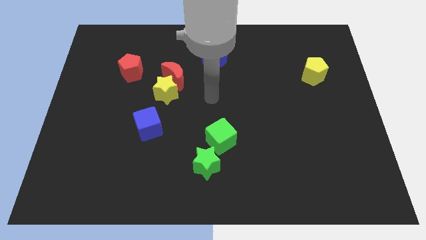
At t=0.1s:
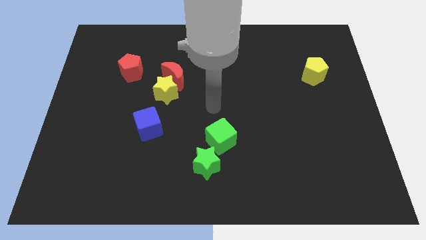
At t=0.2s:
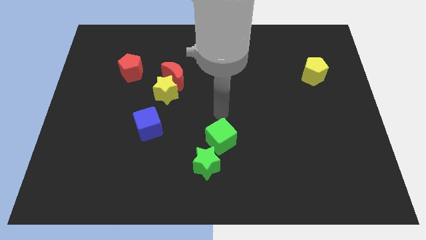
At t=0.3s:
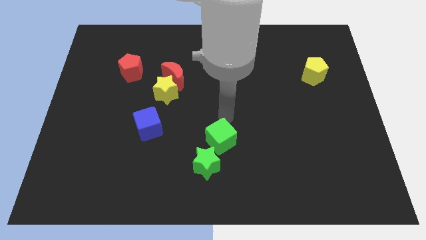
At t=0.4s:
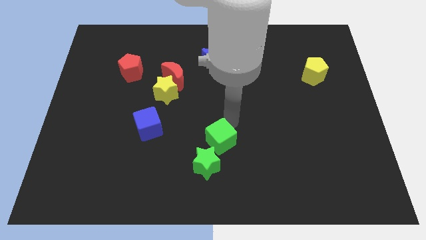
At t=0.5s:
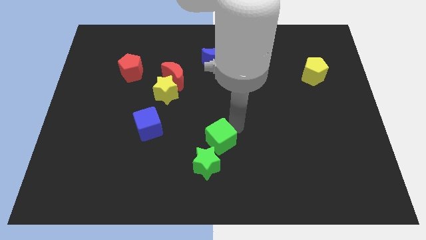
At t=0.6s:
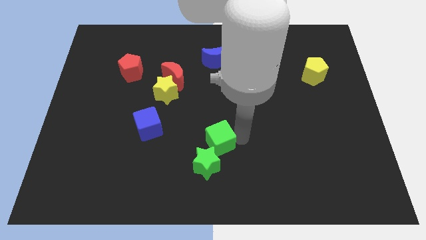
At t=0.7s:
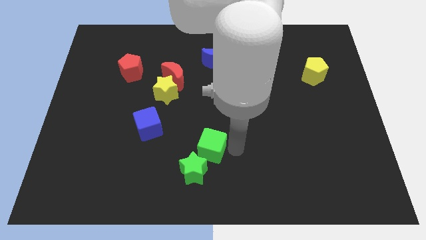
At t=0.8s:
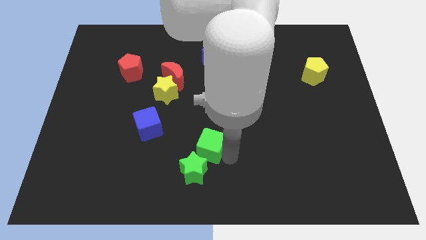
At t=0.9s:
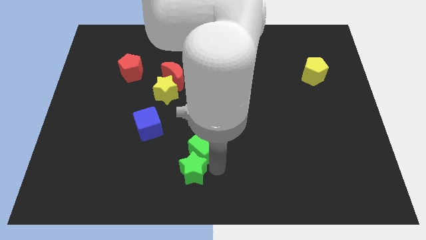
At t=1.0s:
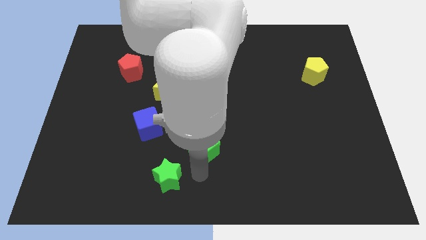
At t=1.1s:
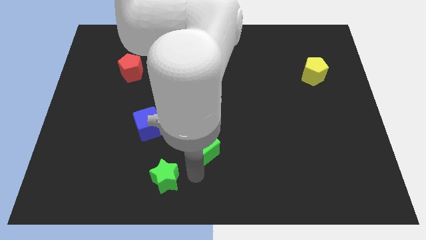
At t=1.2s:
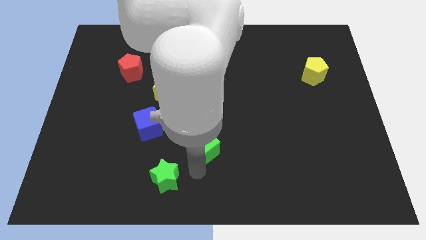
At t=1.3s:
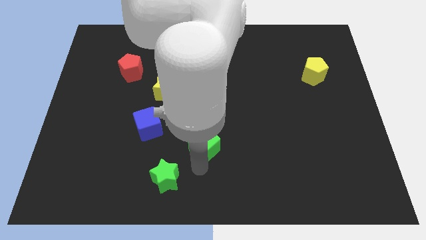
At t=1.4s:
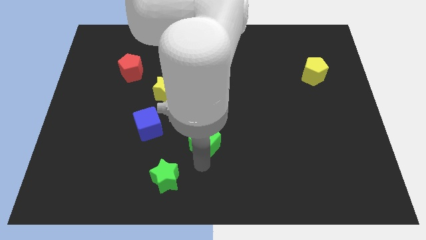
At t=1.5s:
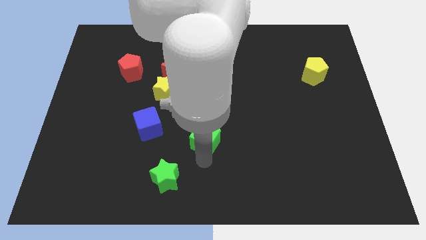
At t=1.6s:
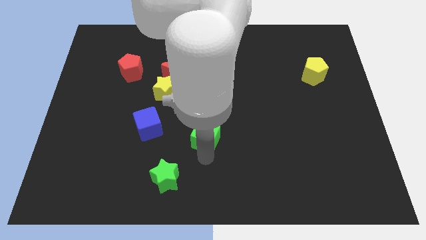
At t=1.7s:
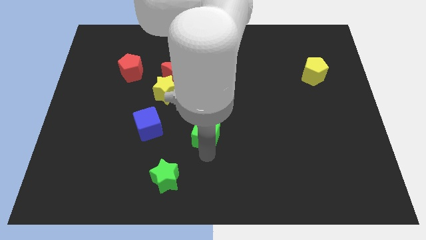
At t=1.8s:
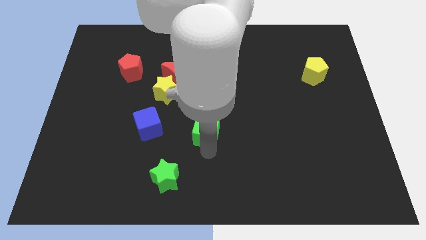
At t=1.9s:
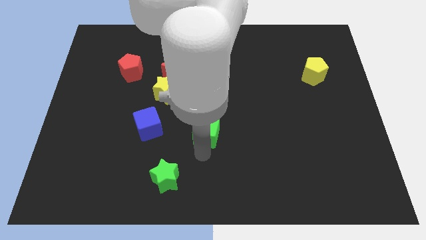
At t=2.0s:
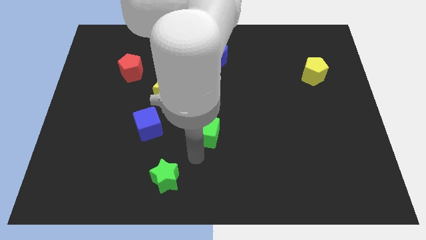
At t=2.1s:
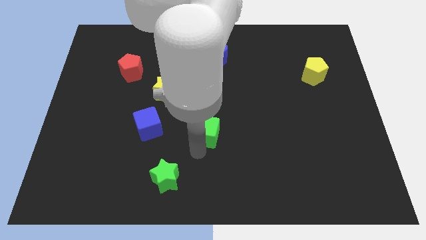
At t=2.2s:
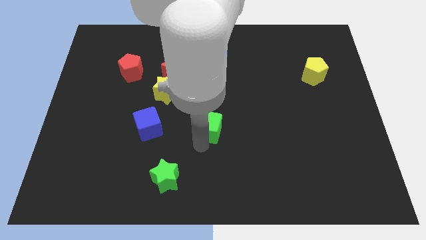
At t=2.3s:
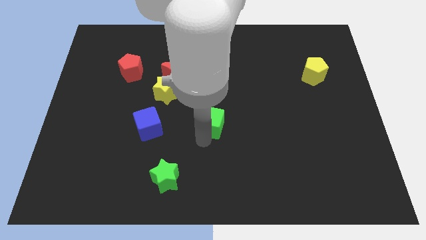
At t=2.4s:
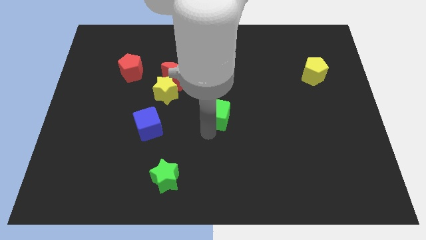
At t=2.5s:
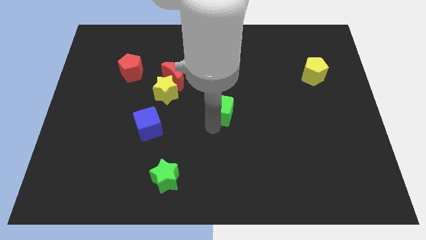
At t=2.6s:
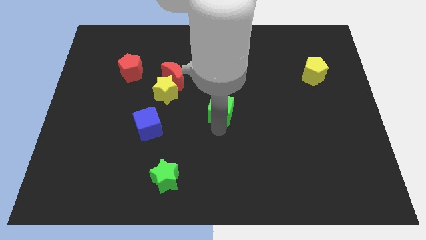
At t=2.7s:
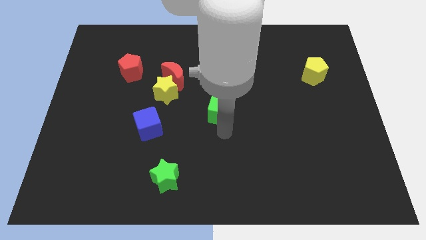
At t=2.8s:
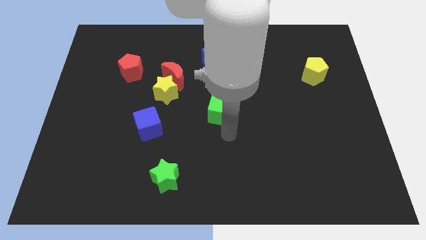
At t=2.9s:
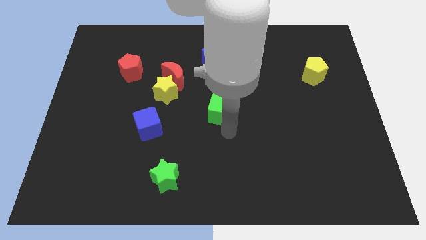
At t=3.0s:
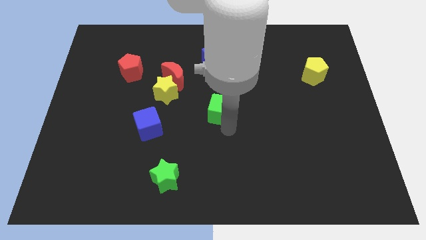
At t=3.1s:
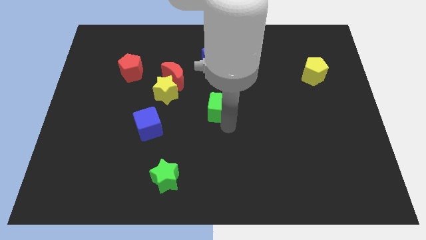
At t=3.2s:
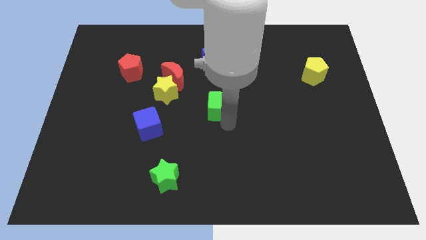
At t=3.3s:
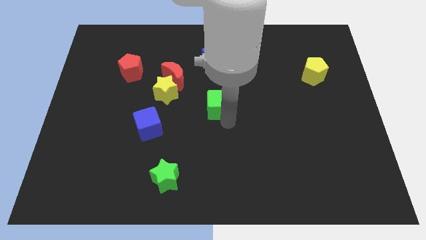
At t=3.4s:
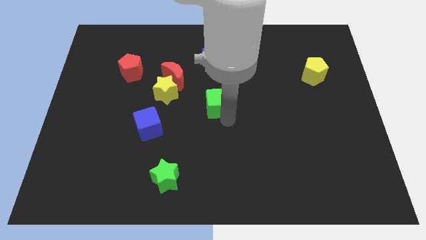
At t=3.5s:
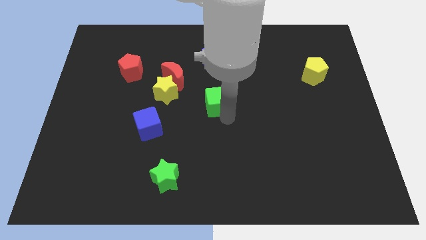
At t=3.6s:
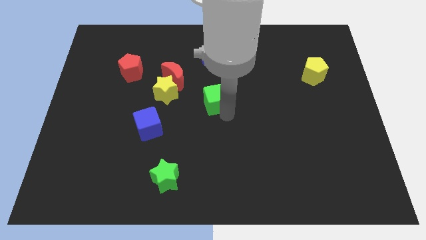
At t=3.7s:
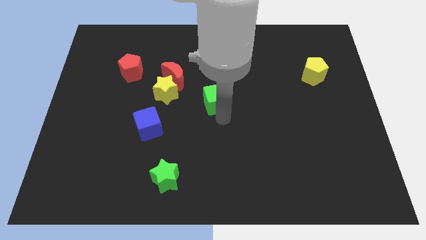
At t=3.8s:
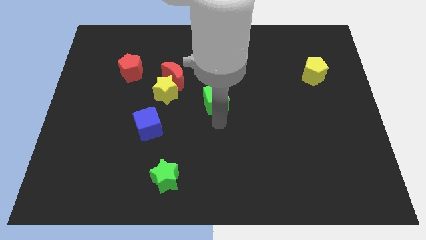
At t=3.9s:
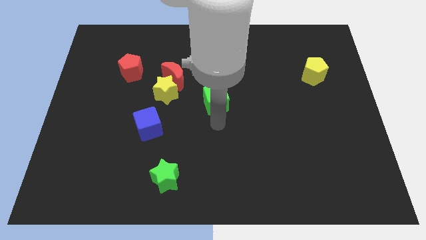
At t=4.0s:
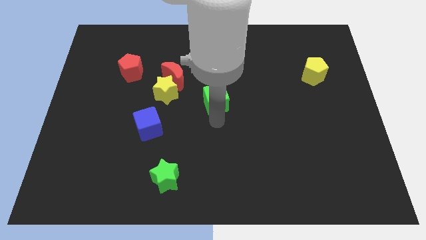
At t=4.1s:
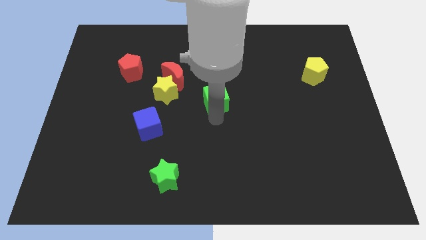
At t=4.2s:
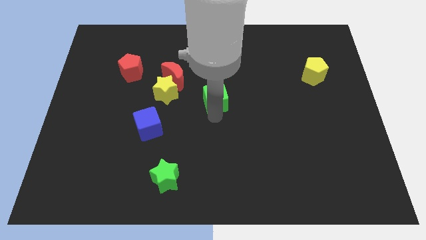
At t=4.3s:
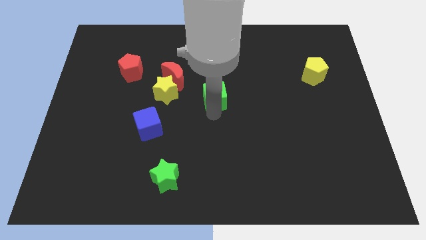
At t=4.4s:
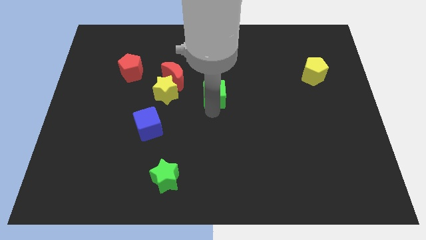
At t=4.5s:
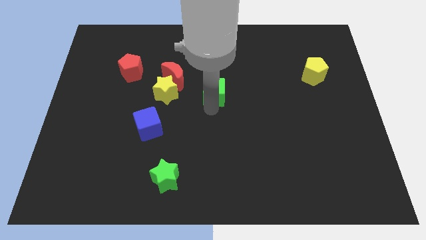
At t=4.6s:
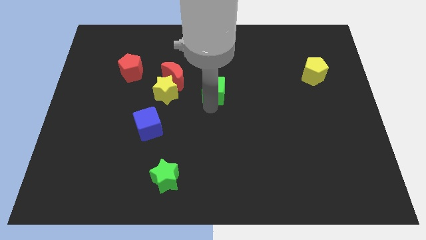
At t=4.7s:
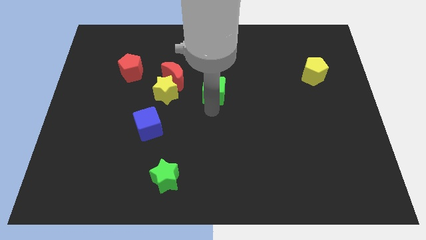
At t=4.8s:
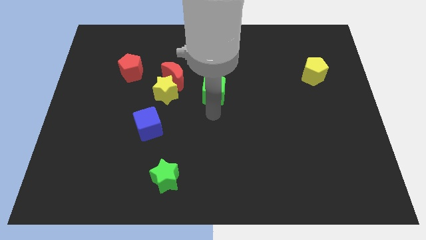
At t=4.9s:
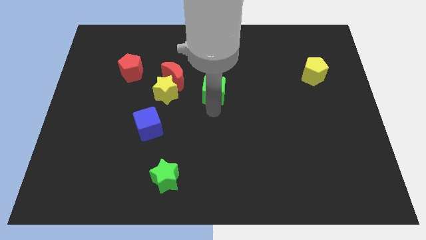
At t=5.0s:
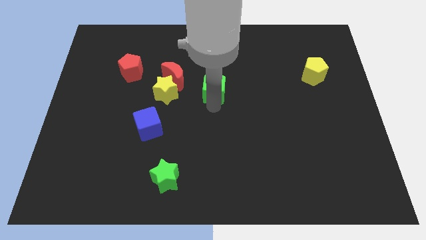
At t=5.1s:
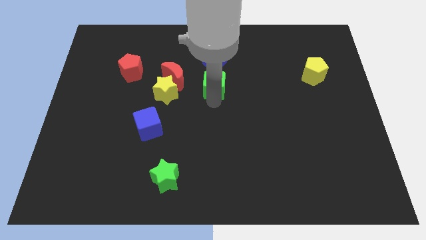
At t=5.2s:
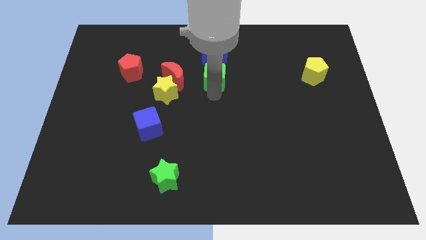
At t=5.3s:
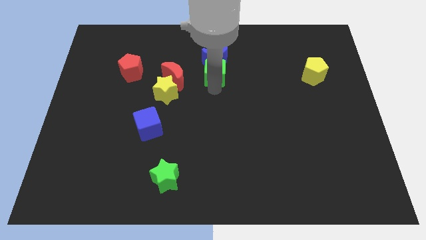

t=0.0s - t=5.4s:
slide the green cube close to the blue moon

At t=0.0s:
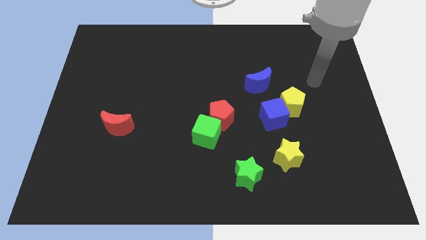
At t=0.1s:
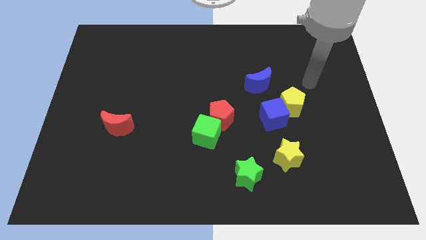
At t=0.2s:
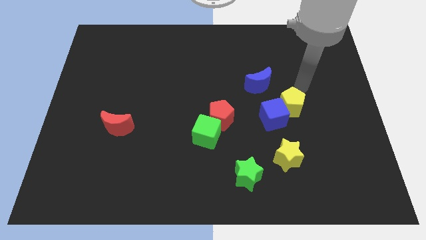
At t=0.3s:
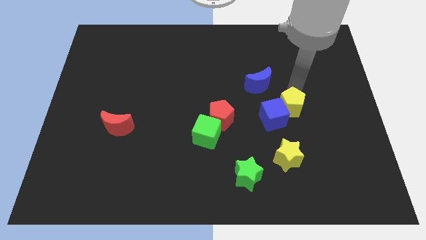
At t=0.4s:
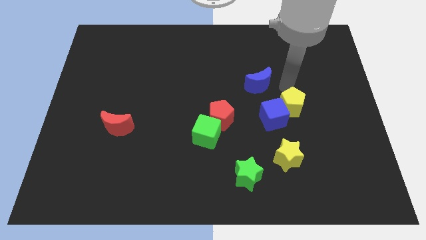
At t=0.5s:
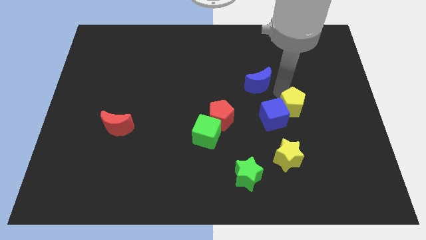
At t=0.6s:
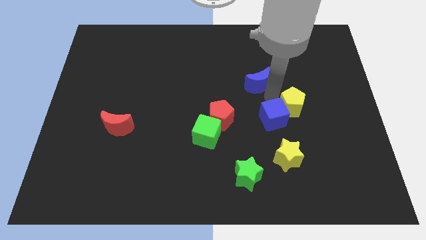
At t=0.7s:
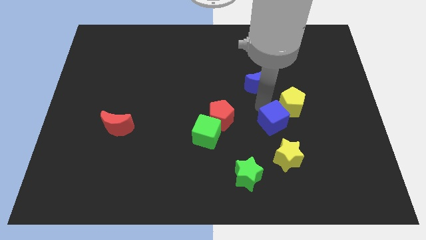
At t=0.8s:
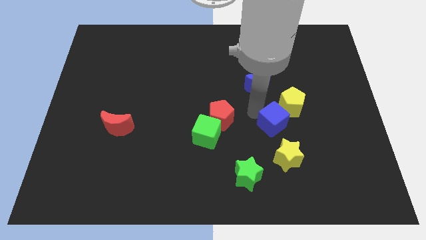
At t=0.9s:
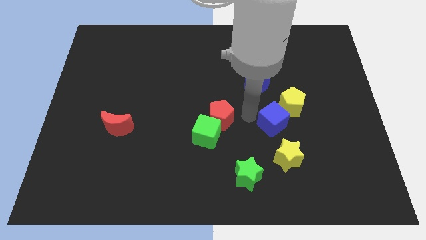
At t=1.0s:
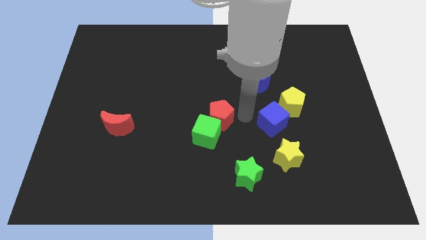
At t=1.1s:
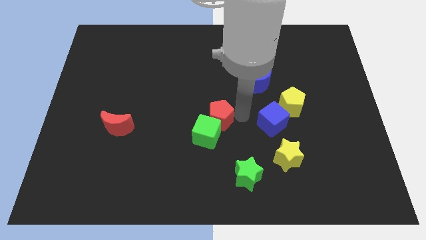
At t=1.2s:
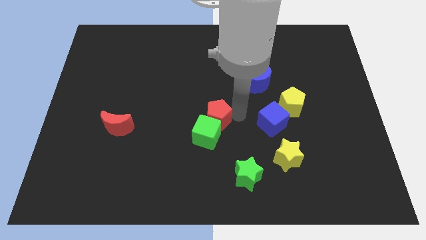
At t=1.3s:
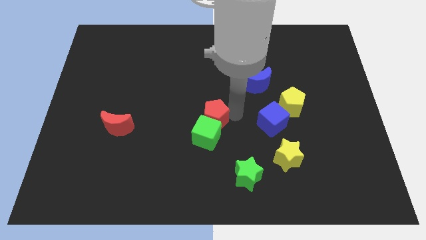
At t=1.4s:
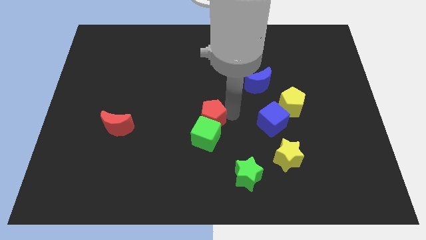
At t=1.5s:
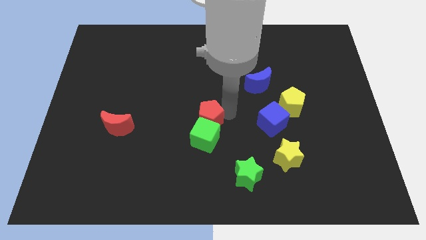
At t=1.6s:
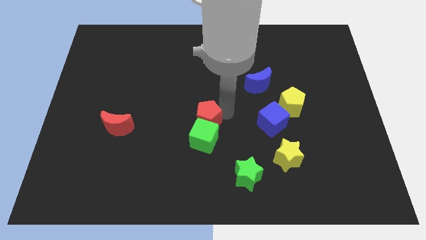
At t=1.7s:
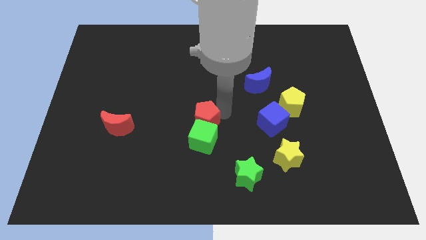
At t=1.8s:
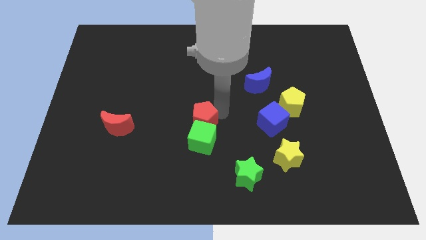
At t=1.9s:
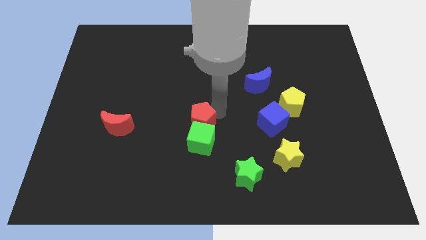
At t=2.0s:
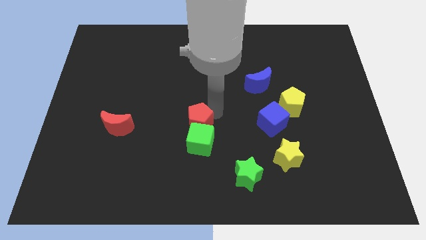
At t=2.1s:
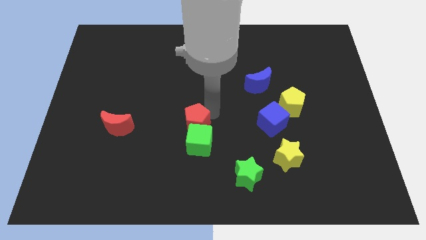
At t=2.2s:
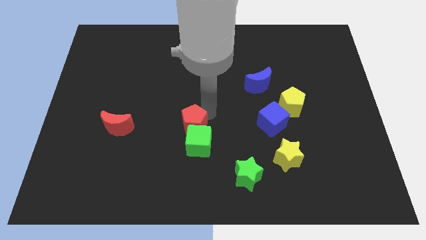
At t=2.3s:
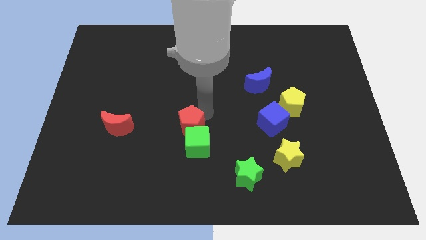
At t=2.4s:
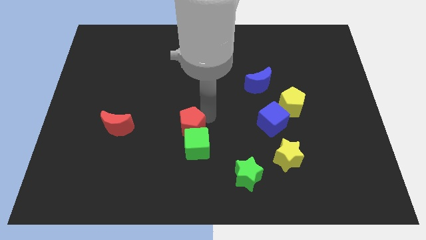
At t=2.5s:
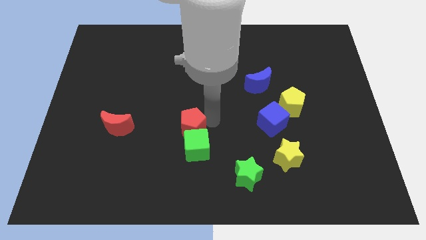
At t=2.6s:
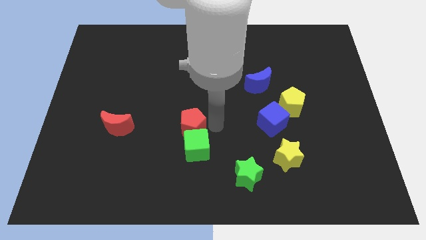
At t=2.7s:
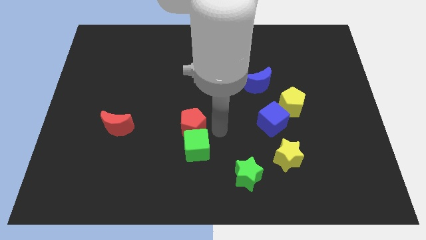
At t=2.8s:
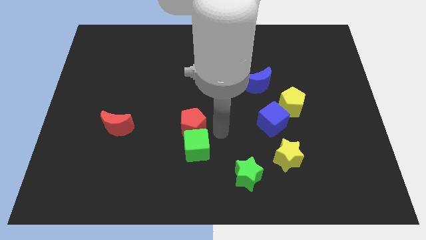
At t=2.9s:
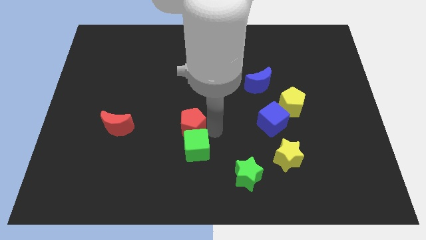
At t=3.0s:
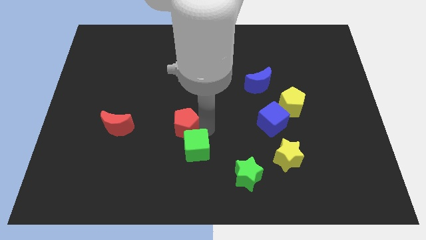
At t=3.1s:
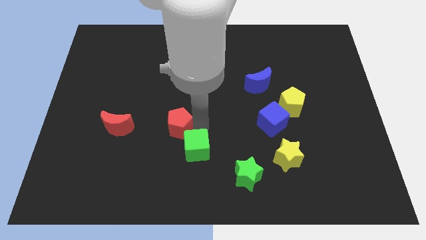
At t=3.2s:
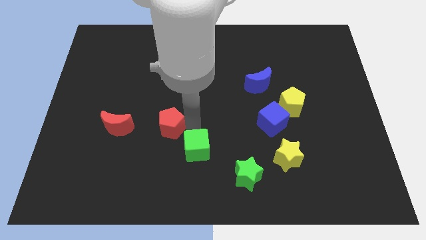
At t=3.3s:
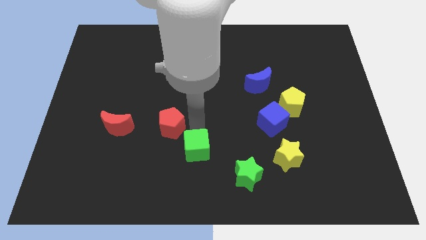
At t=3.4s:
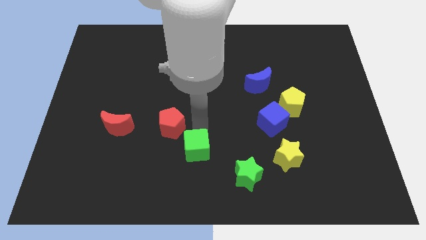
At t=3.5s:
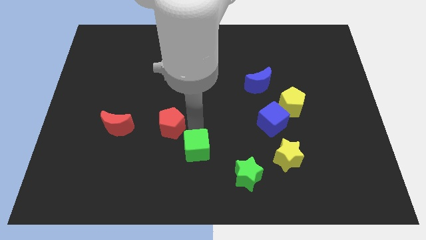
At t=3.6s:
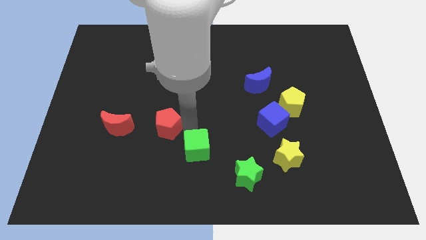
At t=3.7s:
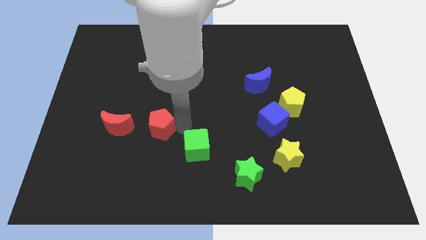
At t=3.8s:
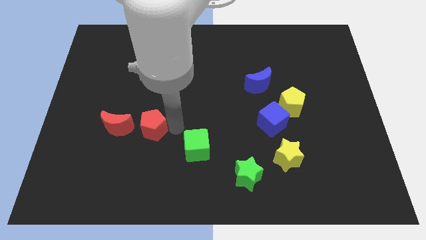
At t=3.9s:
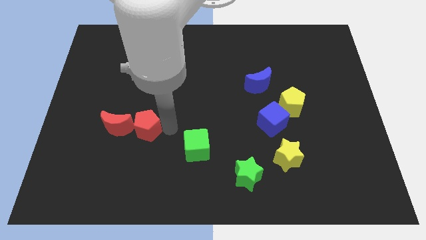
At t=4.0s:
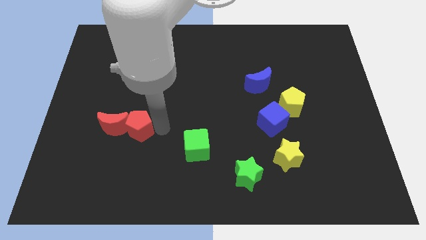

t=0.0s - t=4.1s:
slide the red pentagon next to the red moon
